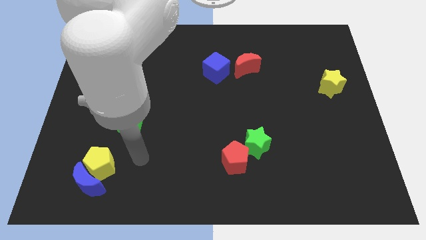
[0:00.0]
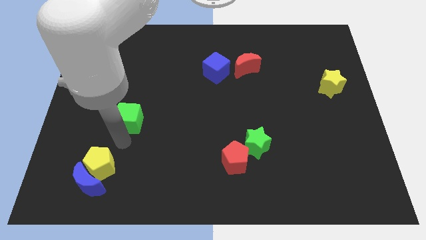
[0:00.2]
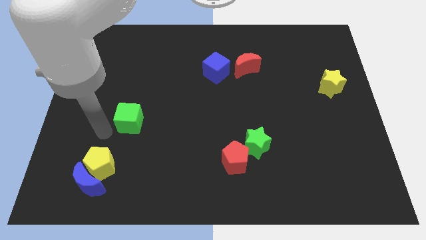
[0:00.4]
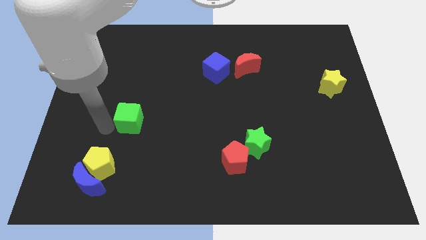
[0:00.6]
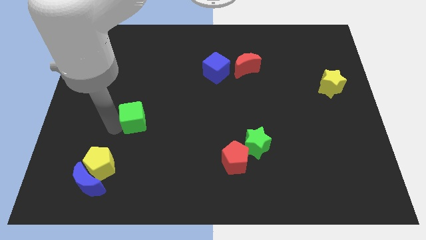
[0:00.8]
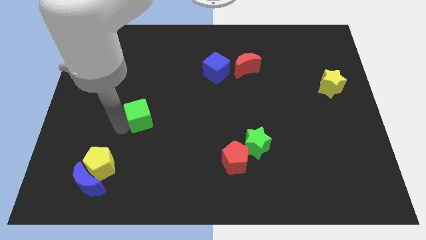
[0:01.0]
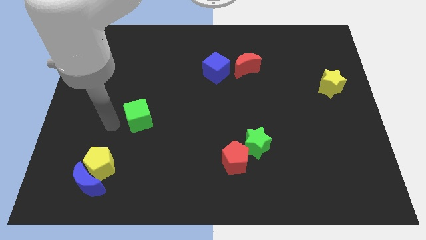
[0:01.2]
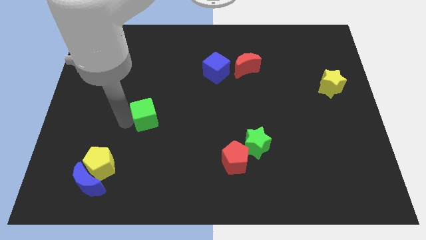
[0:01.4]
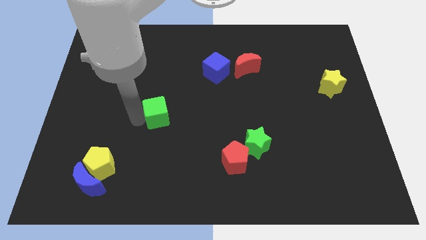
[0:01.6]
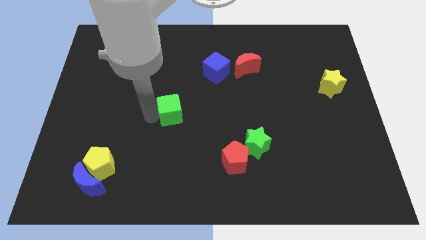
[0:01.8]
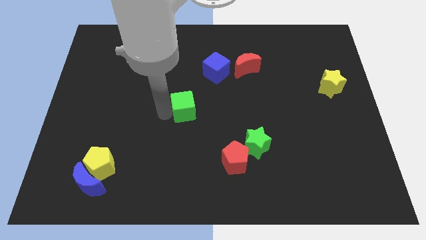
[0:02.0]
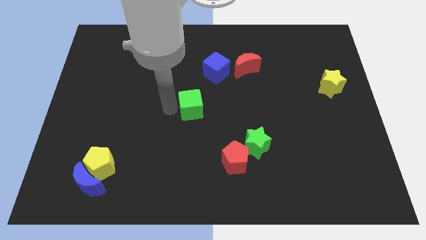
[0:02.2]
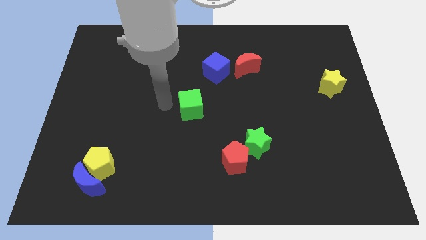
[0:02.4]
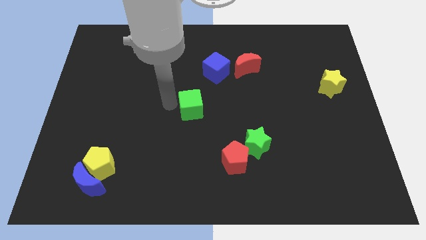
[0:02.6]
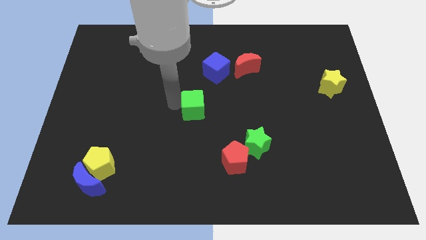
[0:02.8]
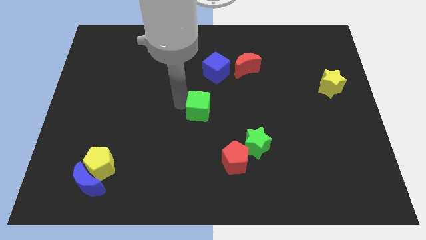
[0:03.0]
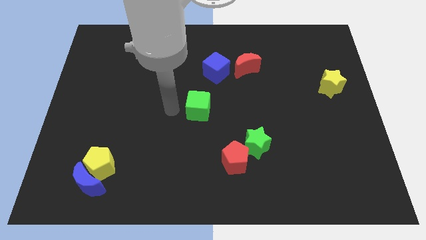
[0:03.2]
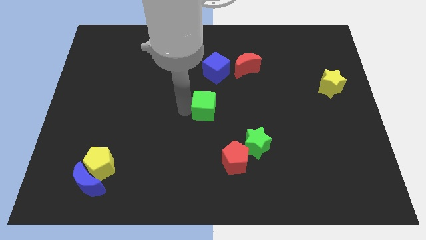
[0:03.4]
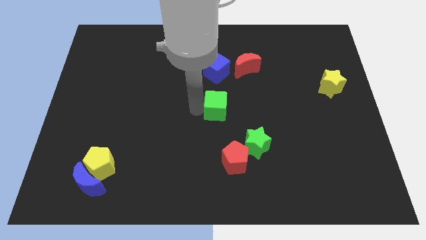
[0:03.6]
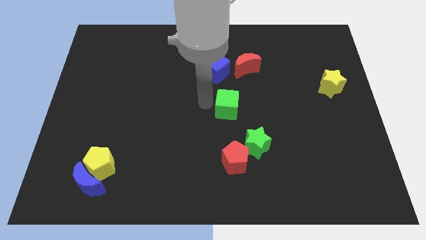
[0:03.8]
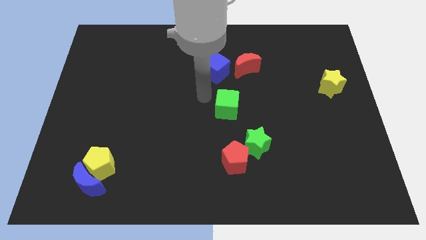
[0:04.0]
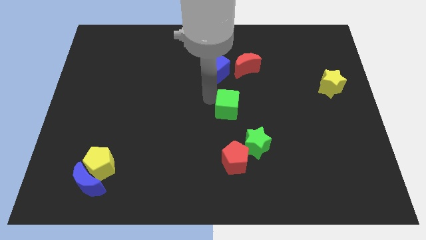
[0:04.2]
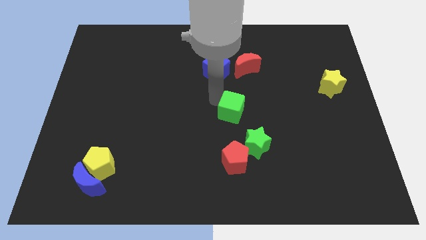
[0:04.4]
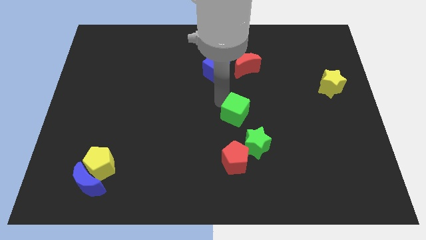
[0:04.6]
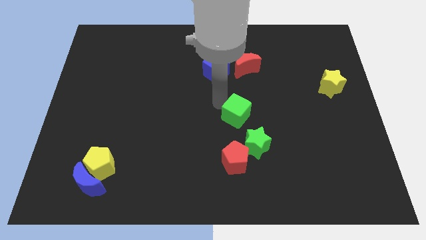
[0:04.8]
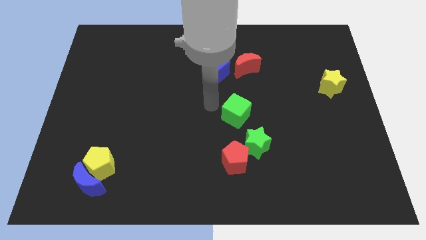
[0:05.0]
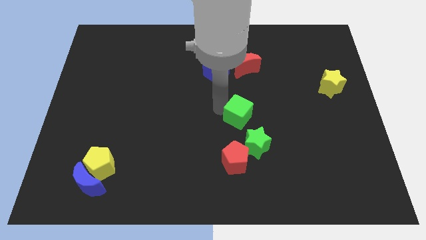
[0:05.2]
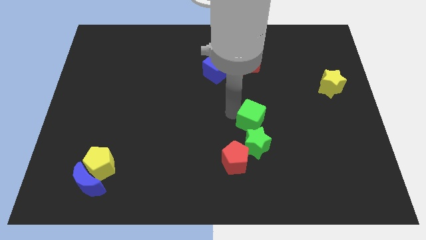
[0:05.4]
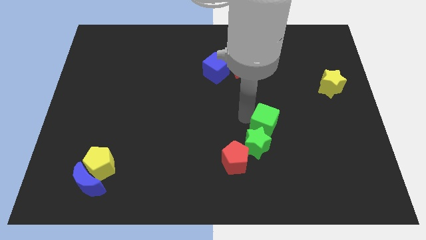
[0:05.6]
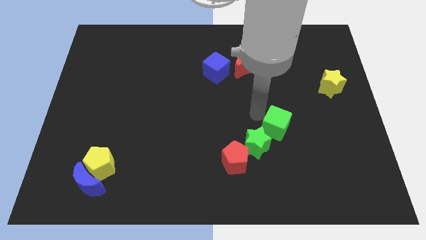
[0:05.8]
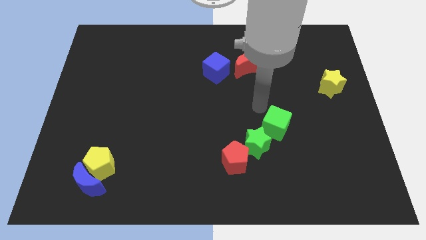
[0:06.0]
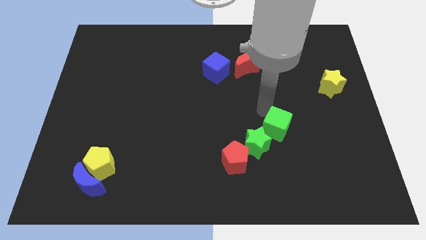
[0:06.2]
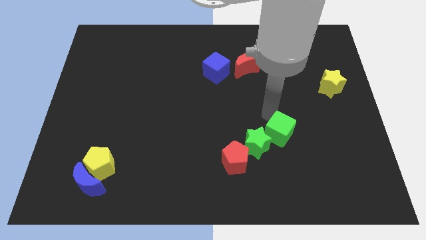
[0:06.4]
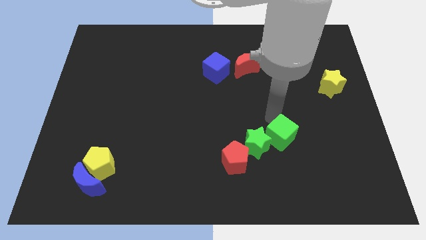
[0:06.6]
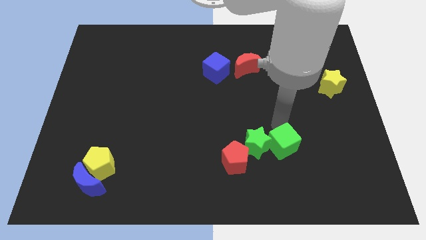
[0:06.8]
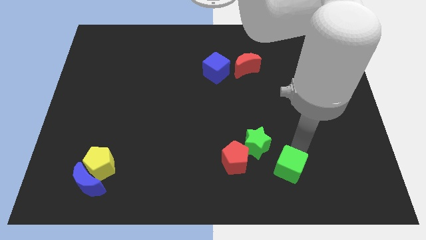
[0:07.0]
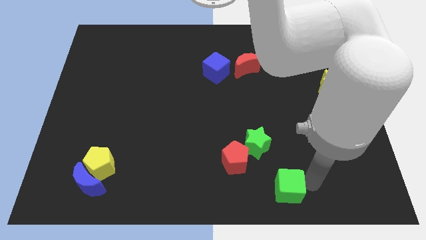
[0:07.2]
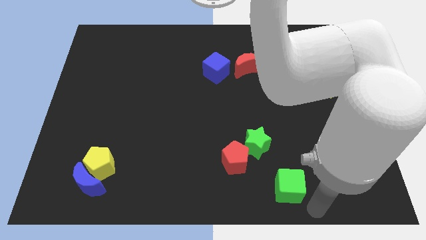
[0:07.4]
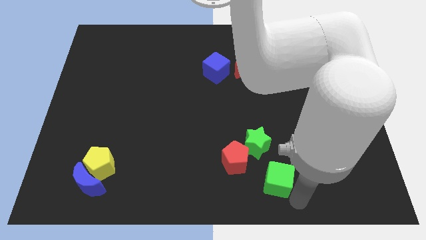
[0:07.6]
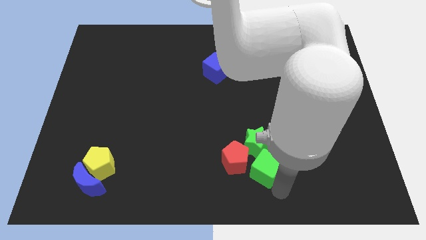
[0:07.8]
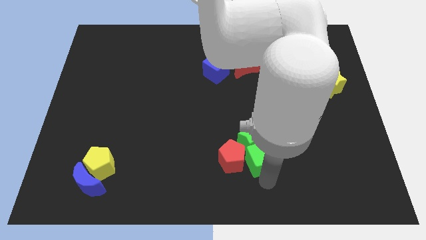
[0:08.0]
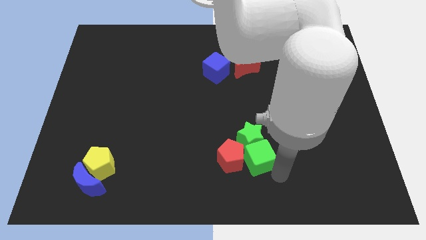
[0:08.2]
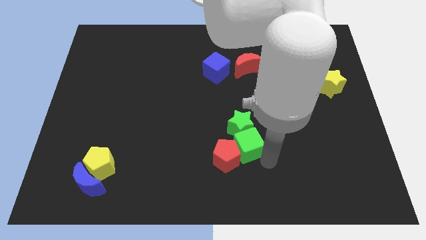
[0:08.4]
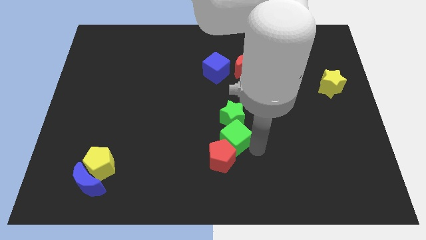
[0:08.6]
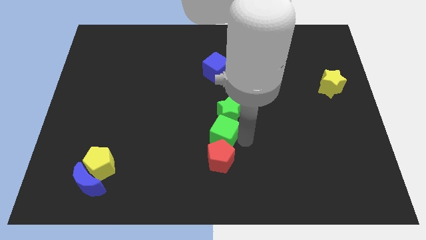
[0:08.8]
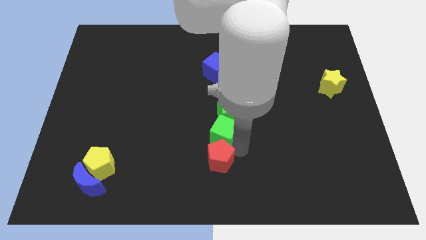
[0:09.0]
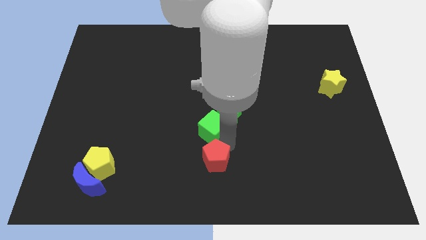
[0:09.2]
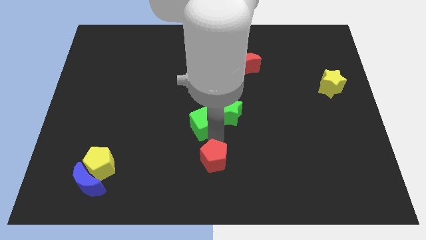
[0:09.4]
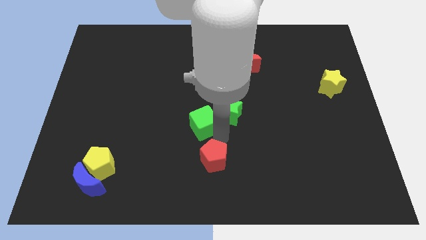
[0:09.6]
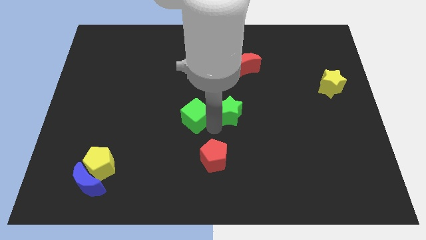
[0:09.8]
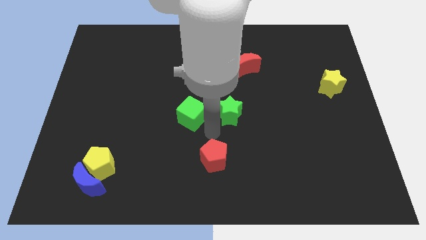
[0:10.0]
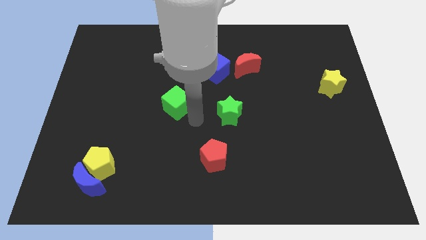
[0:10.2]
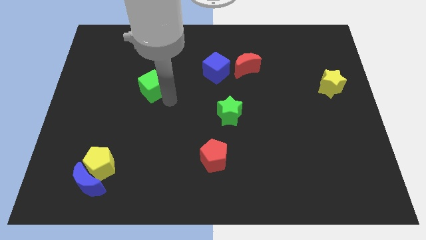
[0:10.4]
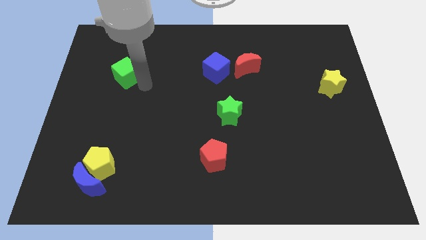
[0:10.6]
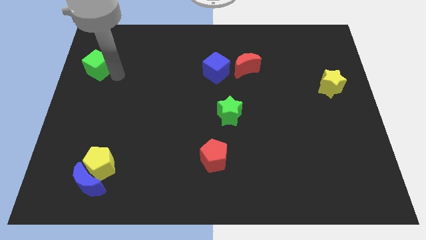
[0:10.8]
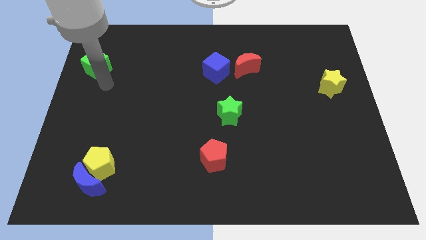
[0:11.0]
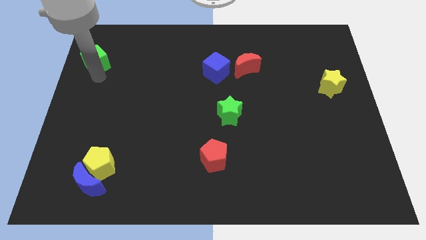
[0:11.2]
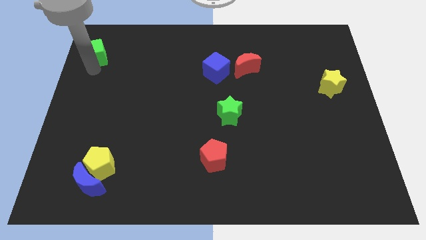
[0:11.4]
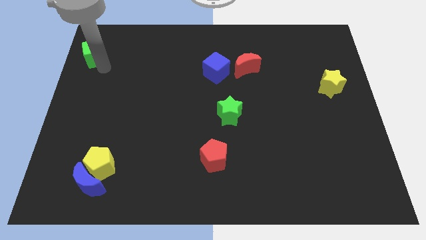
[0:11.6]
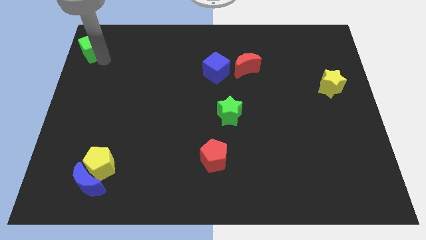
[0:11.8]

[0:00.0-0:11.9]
put the green cube to the top left
